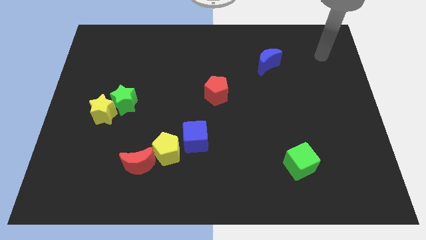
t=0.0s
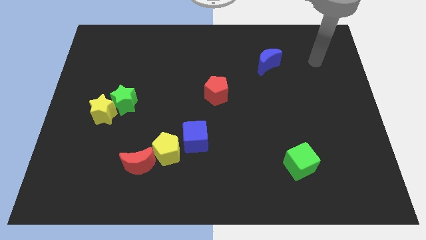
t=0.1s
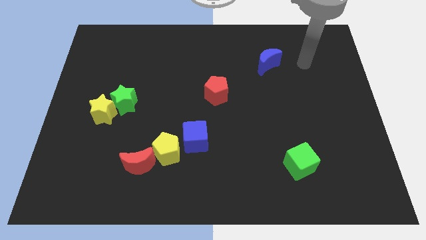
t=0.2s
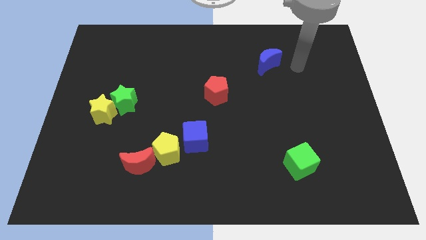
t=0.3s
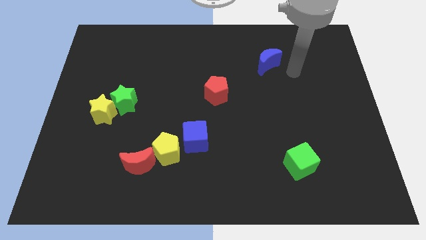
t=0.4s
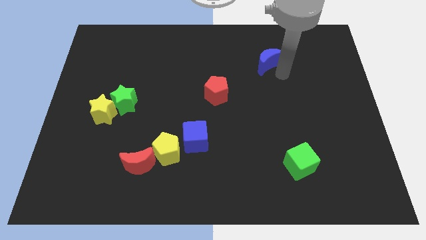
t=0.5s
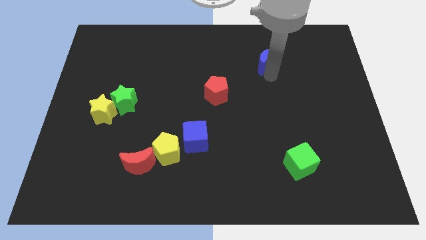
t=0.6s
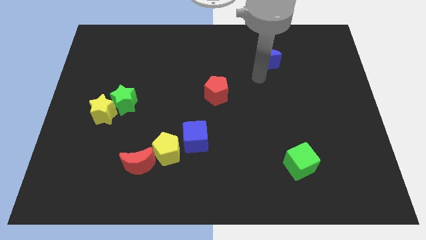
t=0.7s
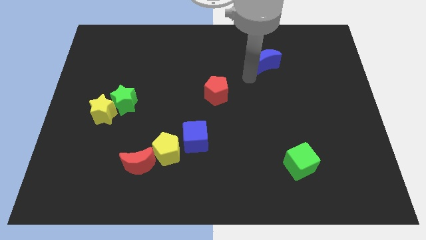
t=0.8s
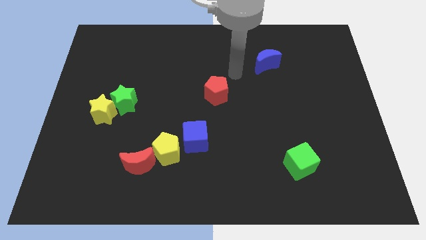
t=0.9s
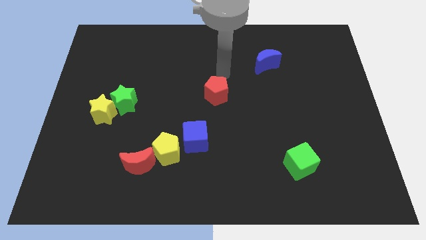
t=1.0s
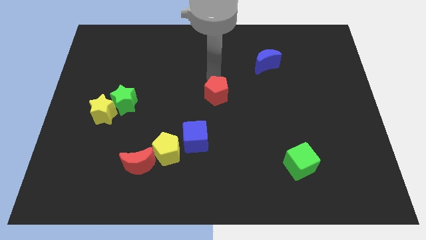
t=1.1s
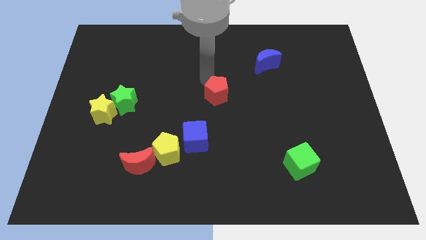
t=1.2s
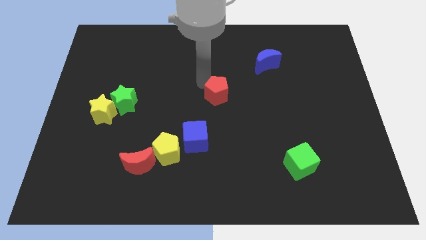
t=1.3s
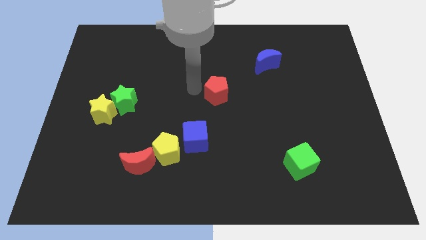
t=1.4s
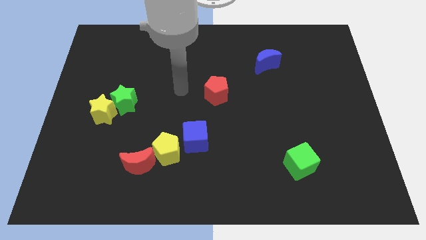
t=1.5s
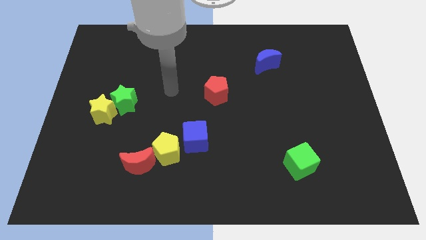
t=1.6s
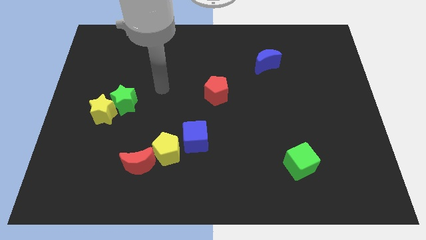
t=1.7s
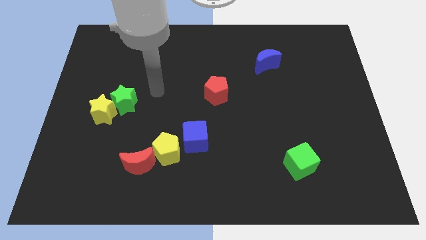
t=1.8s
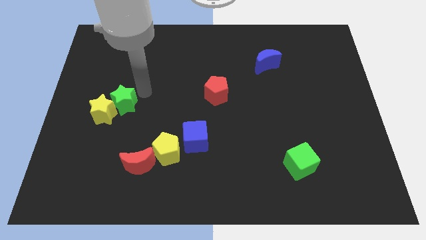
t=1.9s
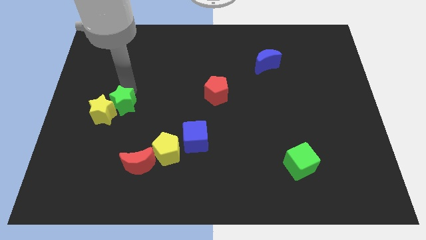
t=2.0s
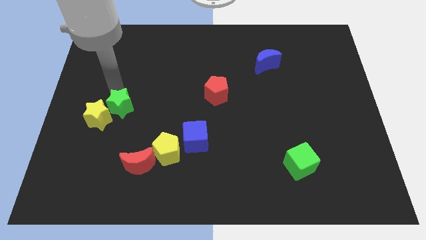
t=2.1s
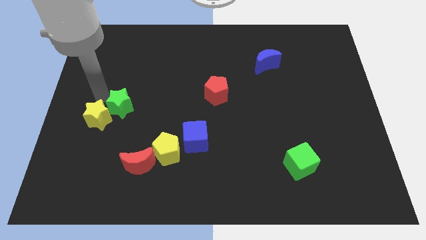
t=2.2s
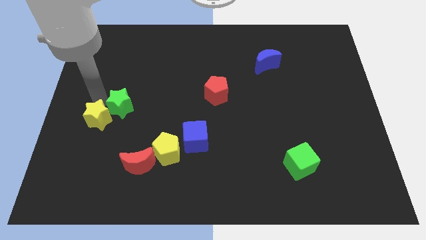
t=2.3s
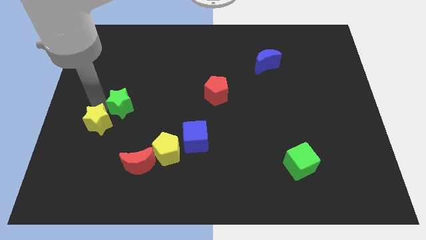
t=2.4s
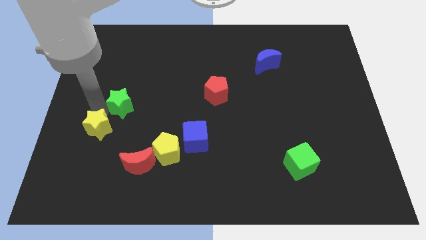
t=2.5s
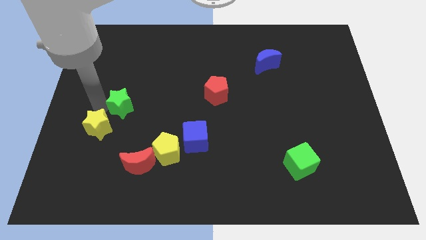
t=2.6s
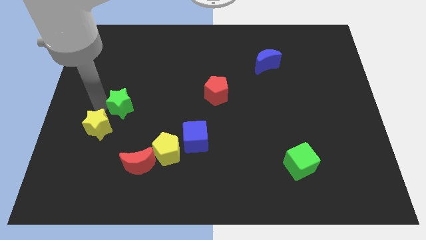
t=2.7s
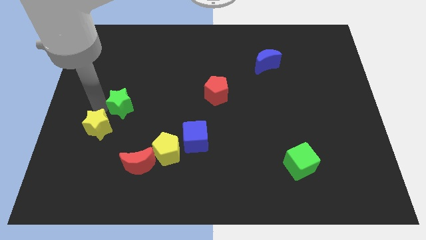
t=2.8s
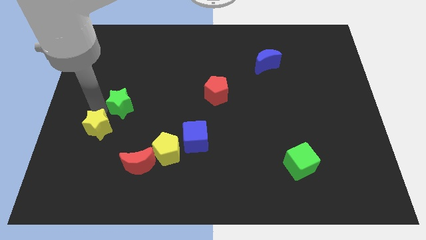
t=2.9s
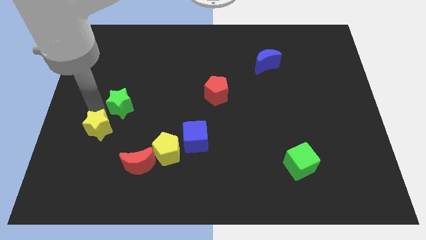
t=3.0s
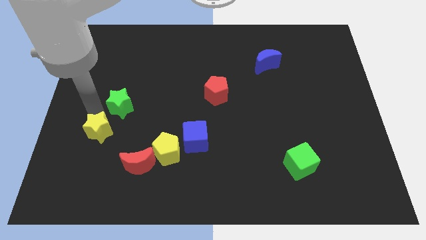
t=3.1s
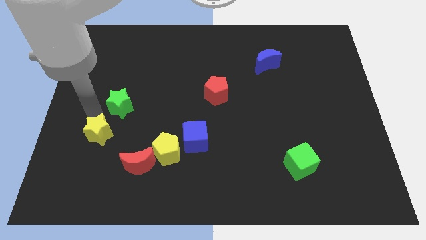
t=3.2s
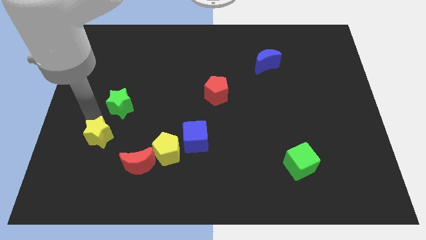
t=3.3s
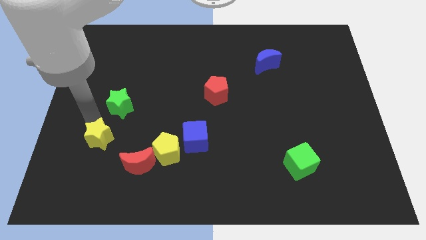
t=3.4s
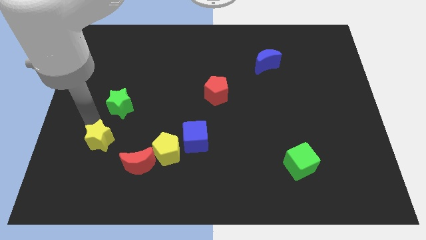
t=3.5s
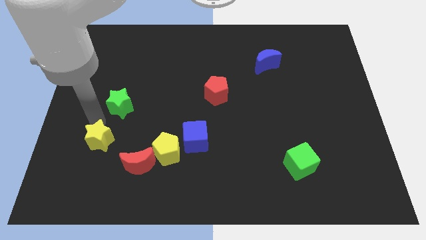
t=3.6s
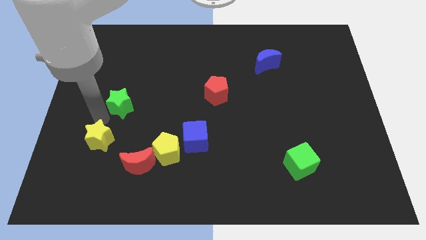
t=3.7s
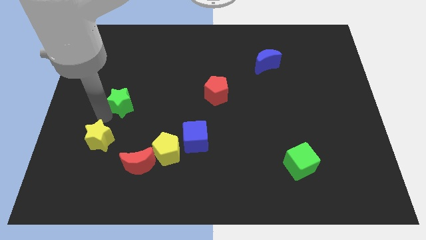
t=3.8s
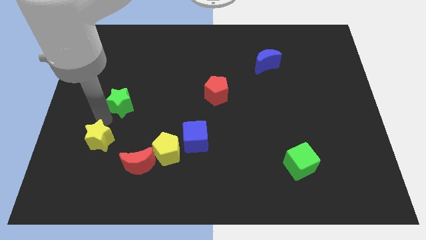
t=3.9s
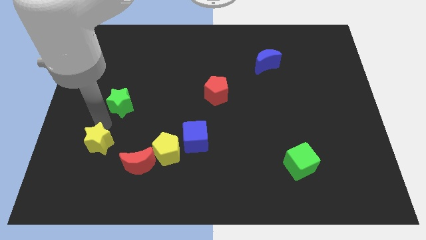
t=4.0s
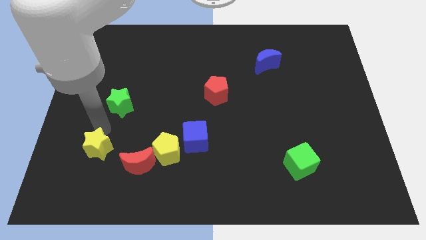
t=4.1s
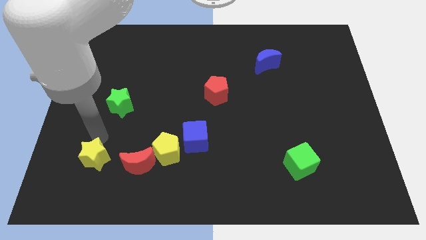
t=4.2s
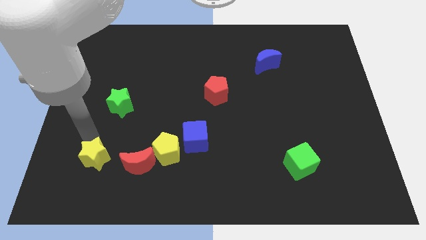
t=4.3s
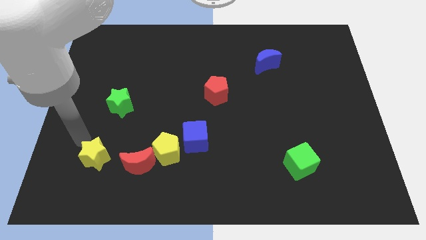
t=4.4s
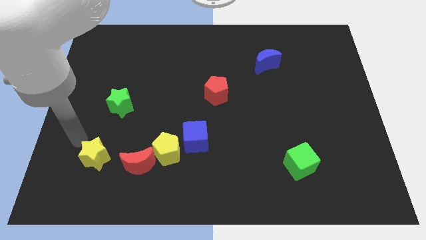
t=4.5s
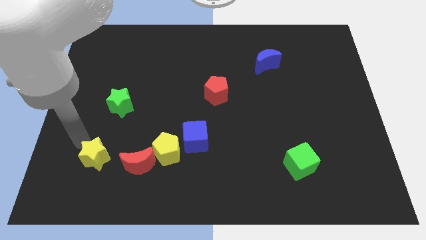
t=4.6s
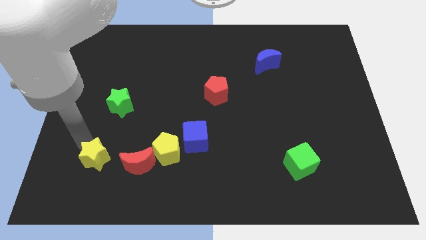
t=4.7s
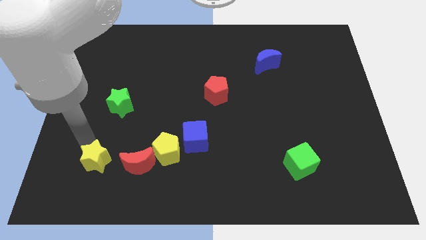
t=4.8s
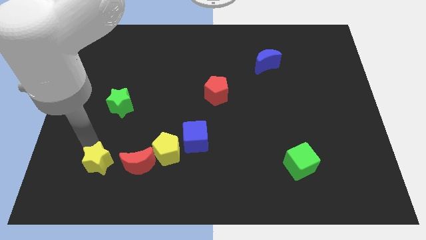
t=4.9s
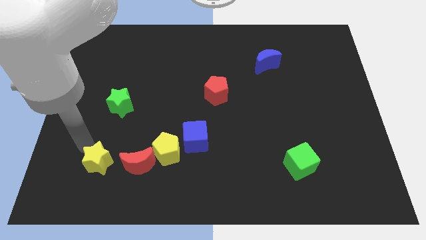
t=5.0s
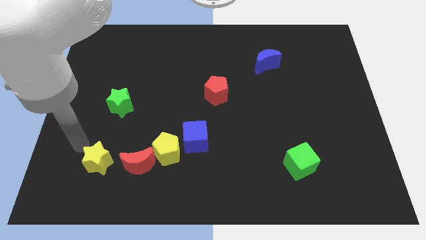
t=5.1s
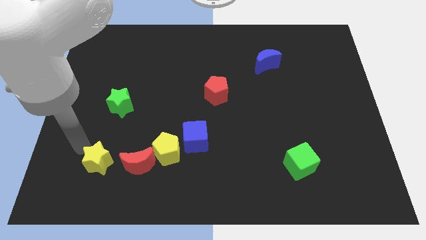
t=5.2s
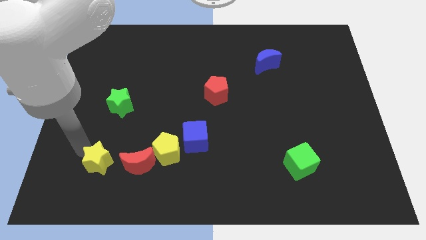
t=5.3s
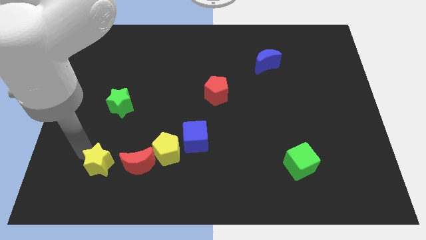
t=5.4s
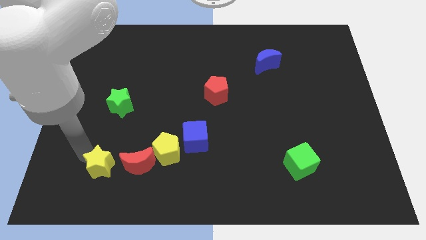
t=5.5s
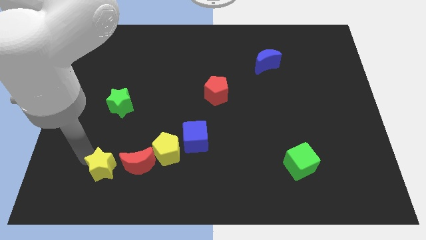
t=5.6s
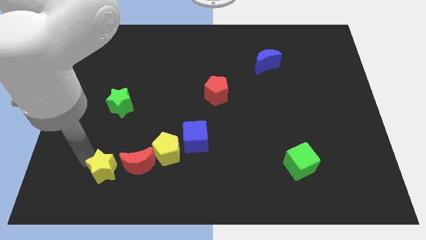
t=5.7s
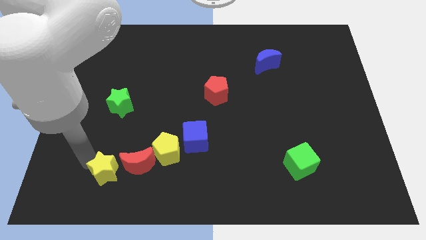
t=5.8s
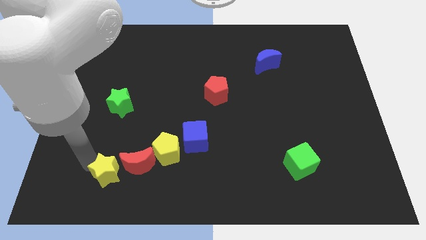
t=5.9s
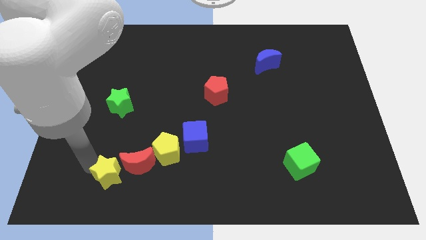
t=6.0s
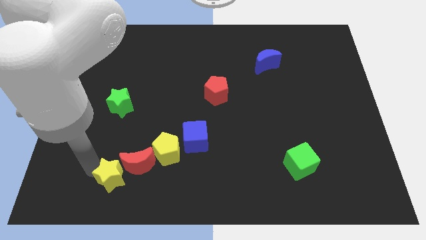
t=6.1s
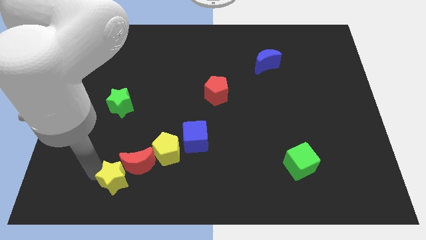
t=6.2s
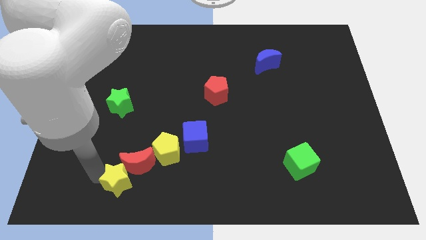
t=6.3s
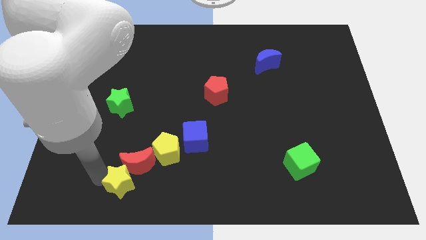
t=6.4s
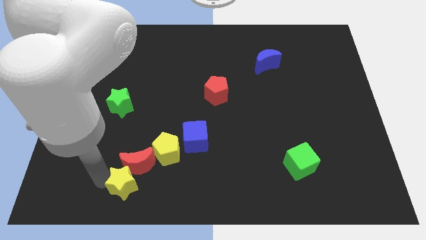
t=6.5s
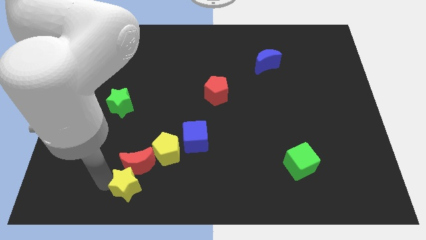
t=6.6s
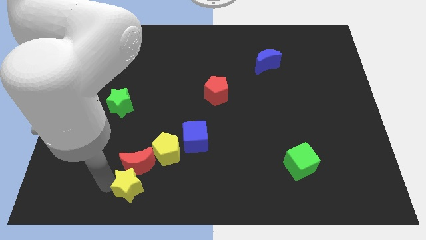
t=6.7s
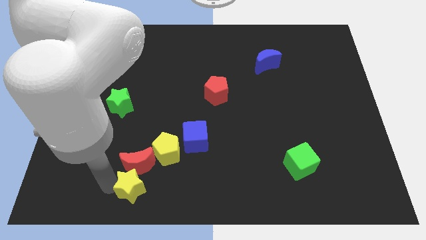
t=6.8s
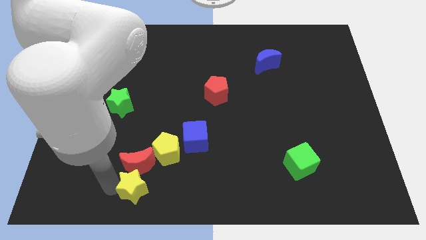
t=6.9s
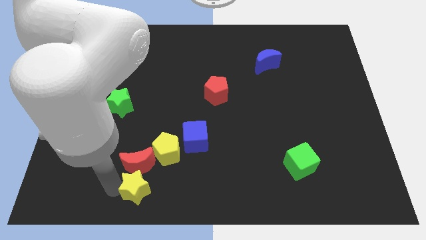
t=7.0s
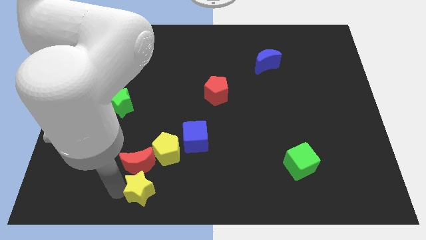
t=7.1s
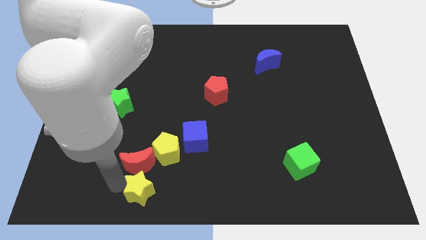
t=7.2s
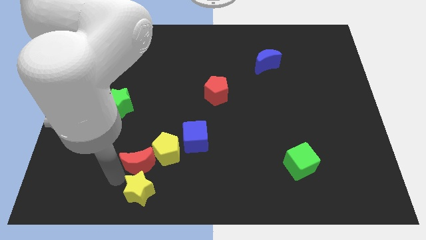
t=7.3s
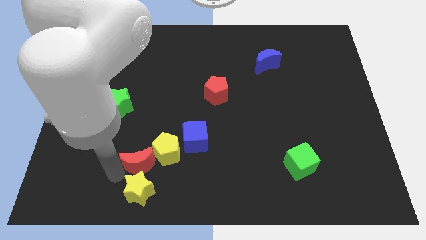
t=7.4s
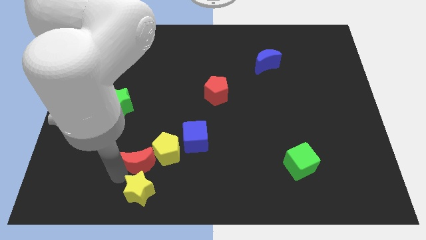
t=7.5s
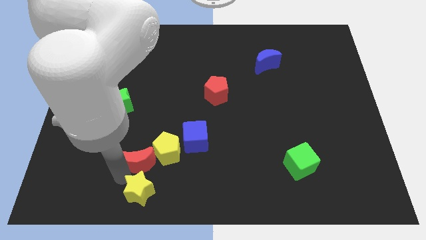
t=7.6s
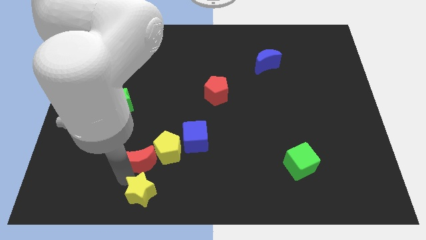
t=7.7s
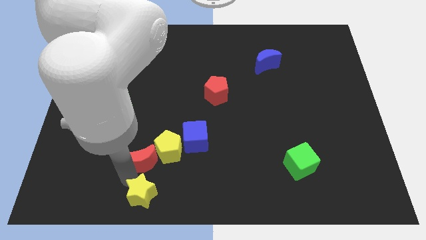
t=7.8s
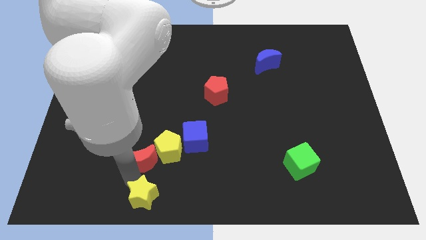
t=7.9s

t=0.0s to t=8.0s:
push the yellow star to the bottom side
